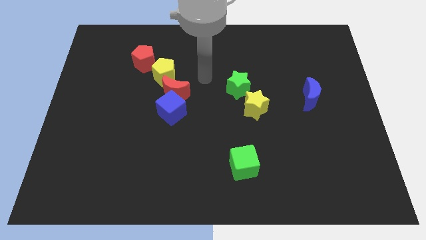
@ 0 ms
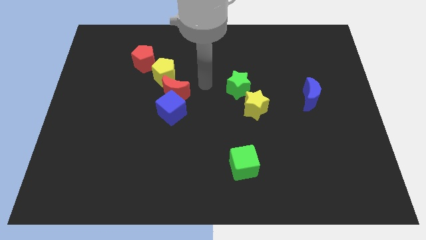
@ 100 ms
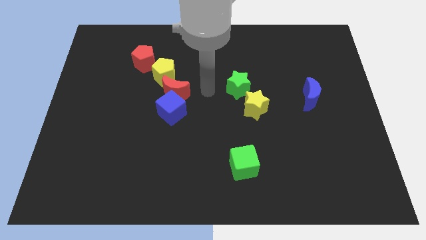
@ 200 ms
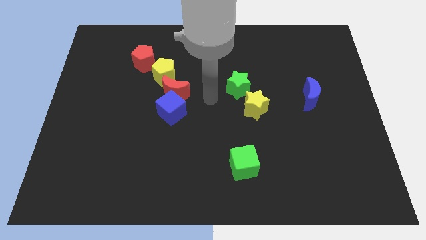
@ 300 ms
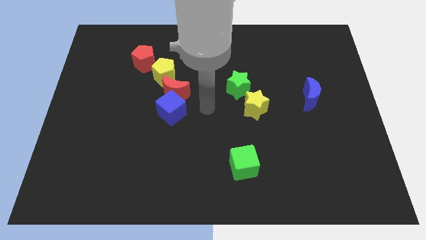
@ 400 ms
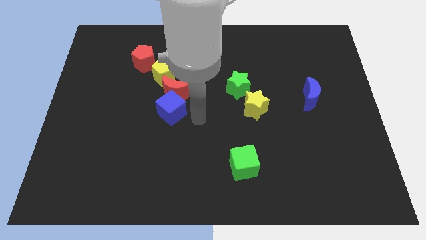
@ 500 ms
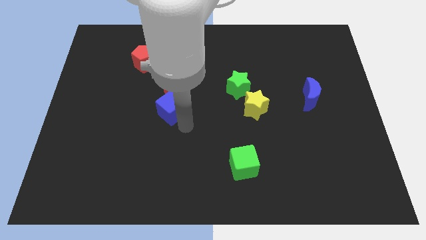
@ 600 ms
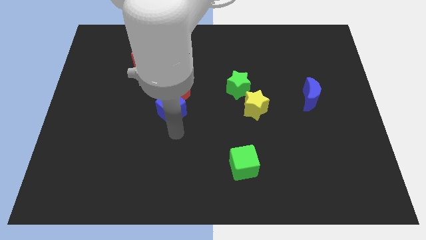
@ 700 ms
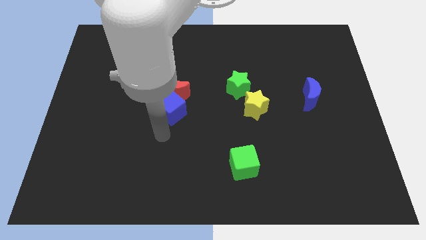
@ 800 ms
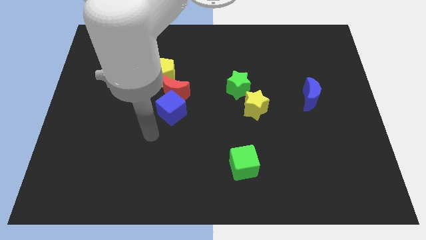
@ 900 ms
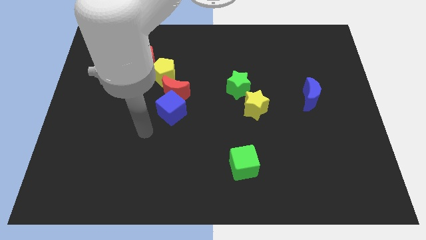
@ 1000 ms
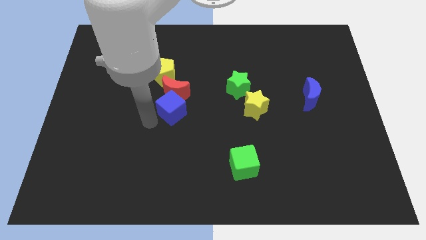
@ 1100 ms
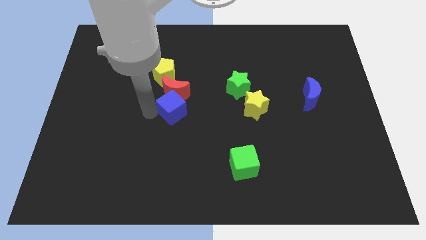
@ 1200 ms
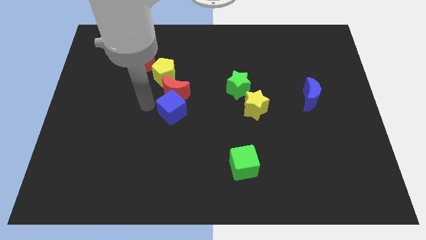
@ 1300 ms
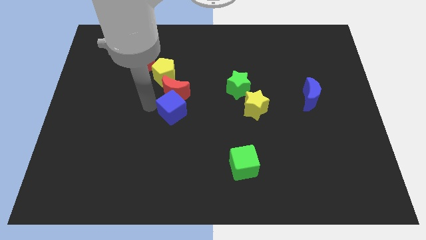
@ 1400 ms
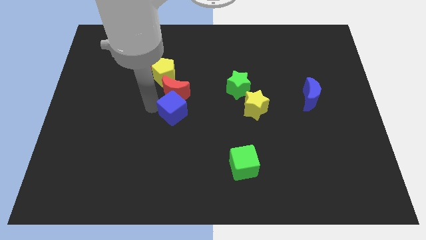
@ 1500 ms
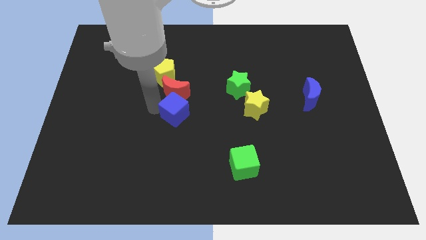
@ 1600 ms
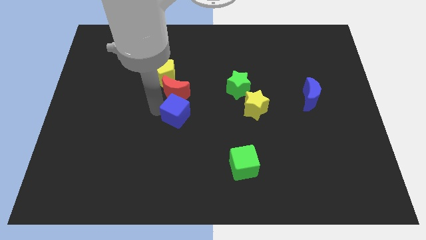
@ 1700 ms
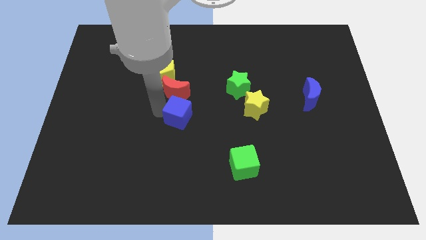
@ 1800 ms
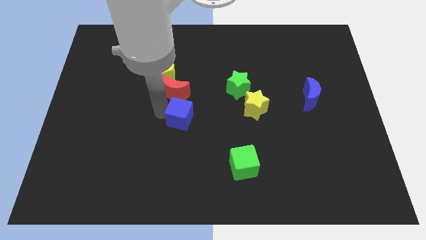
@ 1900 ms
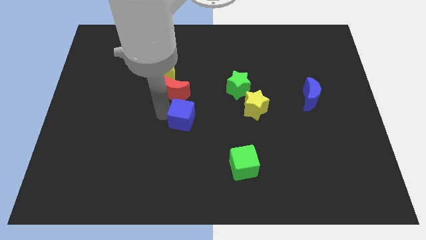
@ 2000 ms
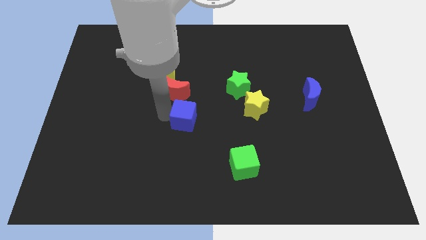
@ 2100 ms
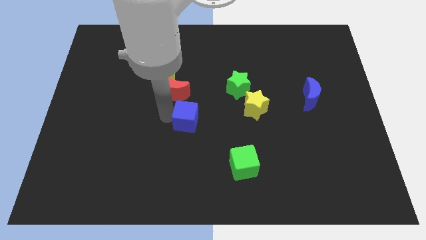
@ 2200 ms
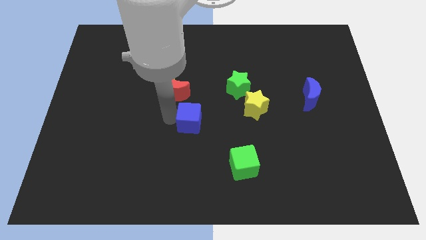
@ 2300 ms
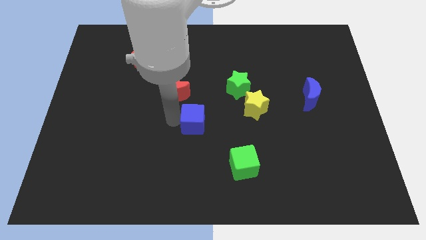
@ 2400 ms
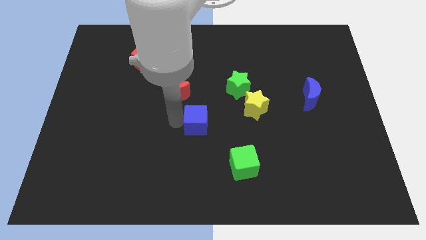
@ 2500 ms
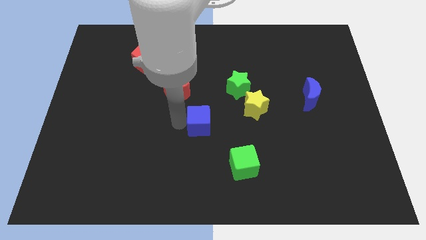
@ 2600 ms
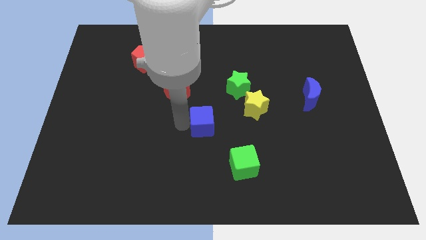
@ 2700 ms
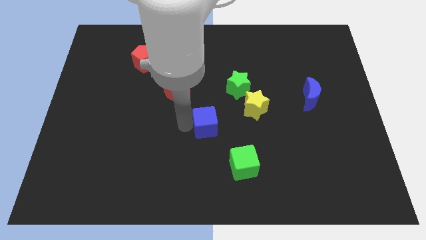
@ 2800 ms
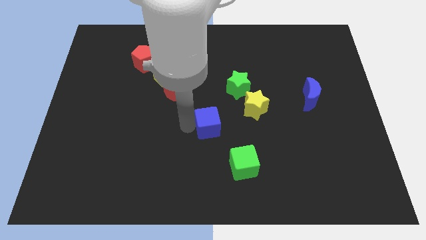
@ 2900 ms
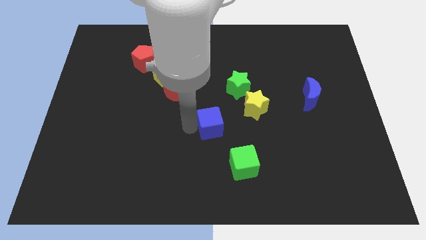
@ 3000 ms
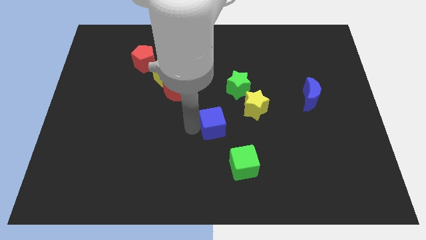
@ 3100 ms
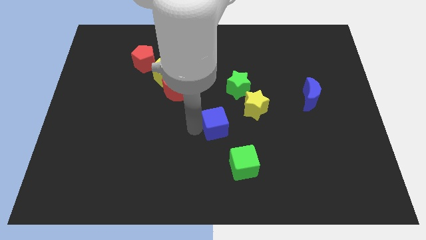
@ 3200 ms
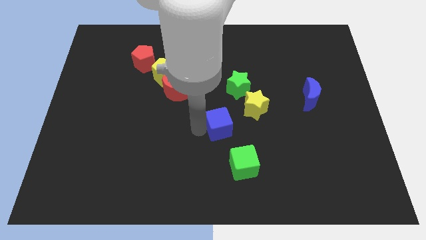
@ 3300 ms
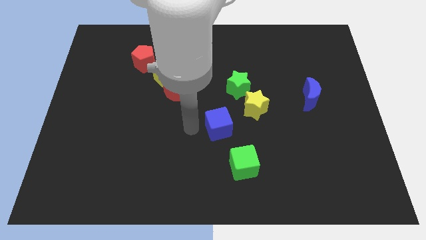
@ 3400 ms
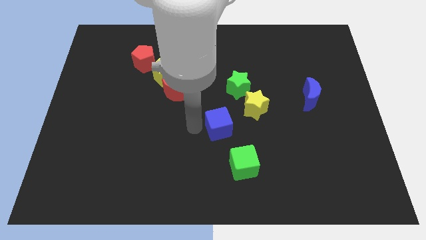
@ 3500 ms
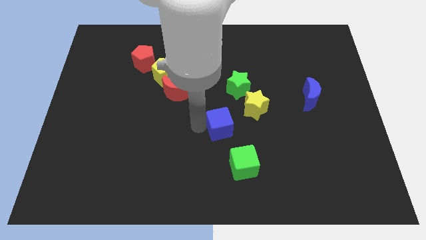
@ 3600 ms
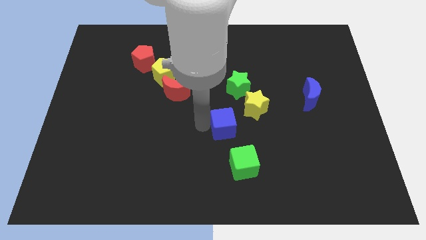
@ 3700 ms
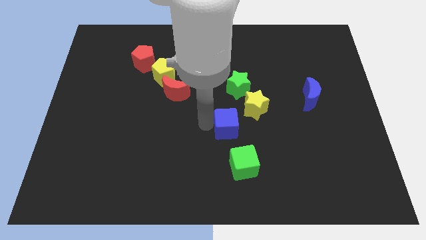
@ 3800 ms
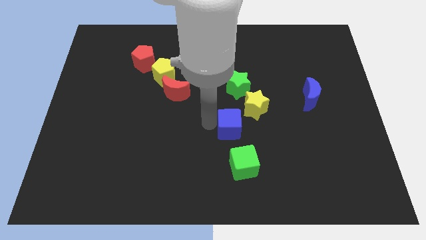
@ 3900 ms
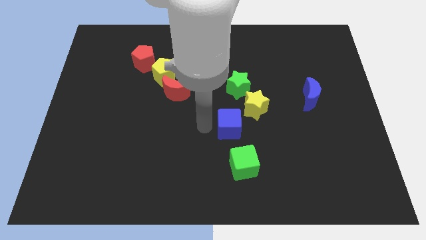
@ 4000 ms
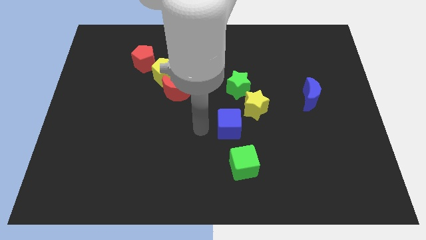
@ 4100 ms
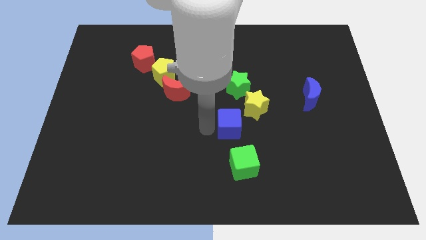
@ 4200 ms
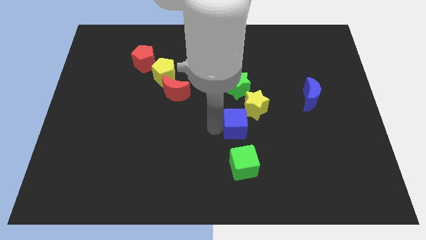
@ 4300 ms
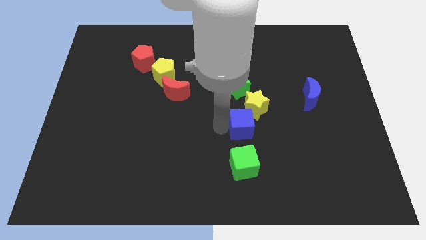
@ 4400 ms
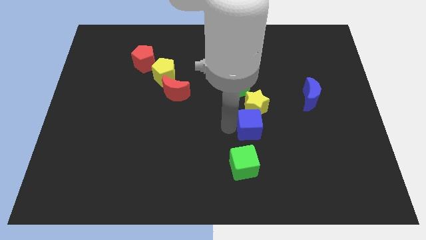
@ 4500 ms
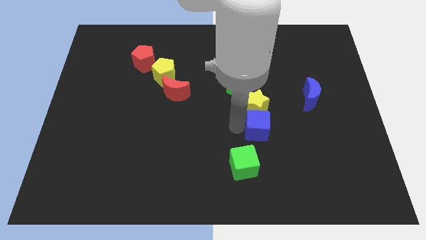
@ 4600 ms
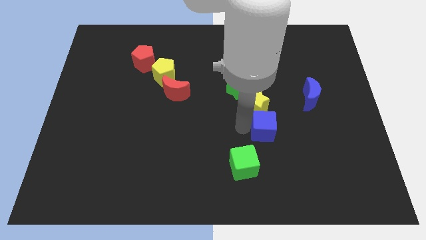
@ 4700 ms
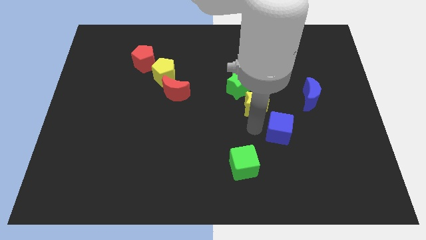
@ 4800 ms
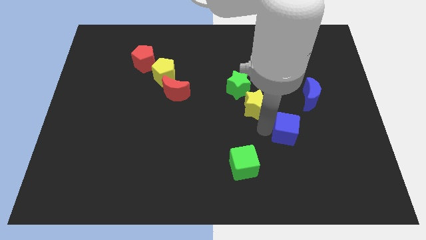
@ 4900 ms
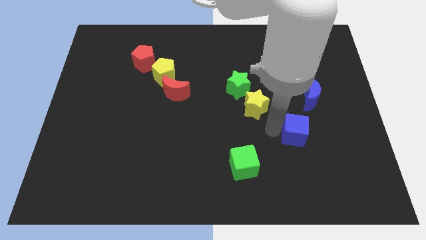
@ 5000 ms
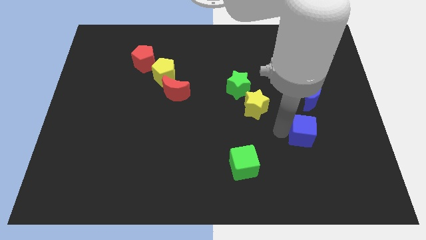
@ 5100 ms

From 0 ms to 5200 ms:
slide the blue cube below the blue moon

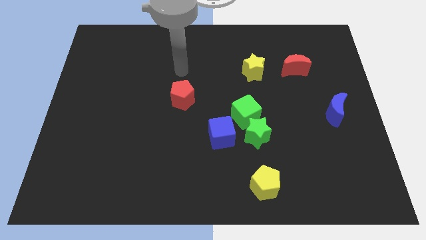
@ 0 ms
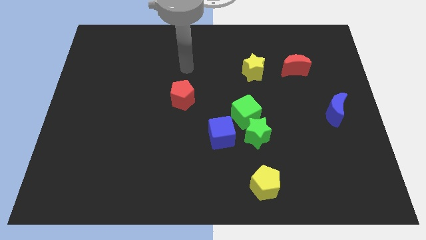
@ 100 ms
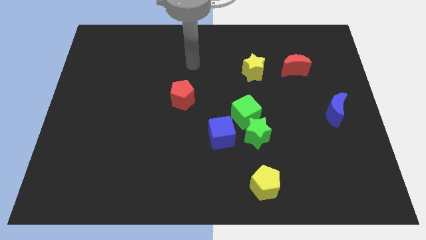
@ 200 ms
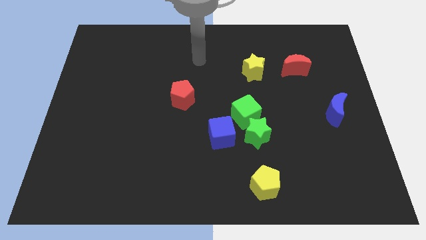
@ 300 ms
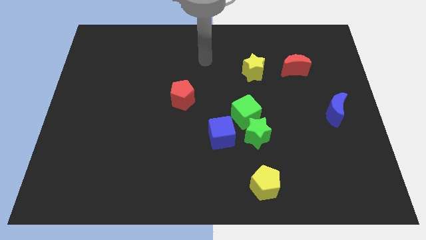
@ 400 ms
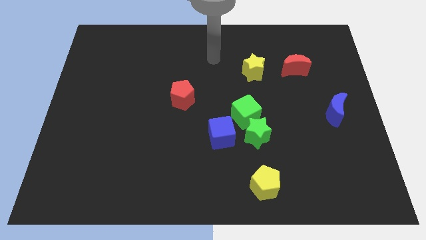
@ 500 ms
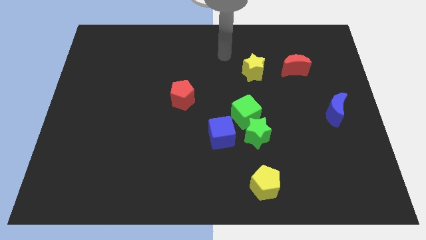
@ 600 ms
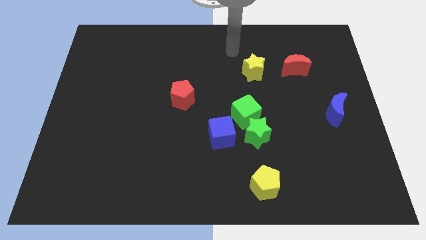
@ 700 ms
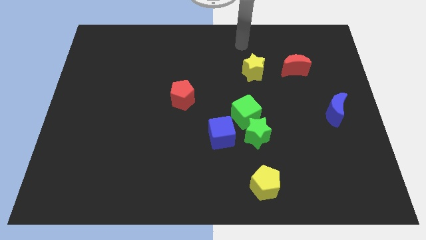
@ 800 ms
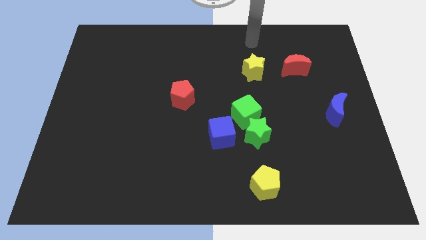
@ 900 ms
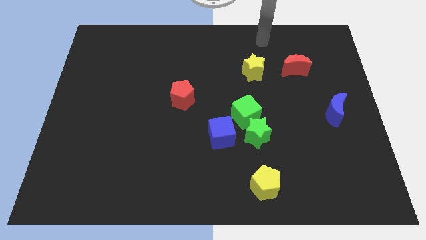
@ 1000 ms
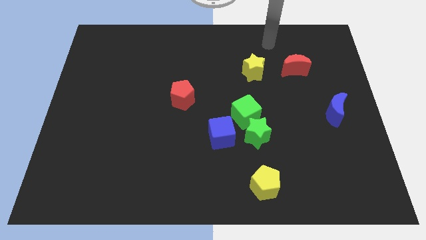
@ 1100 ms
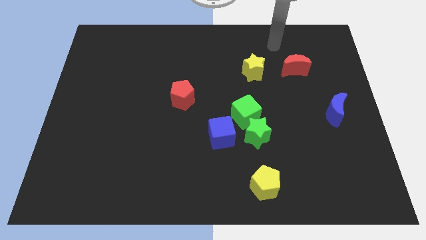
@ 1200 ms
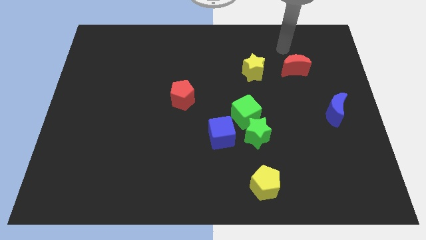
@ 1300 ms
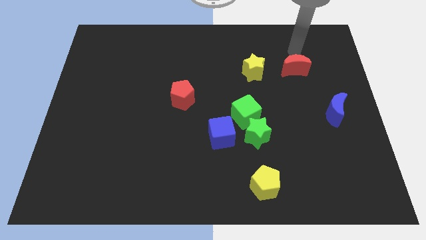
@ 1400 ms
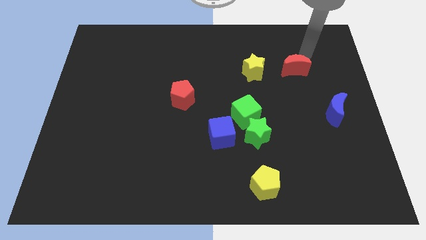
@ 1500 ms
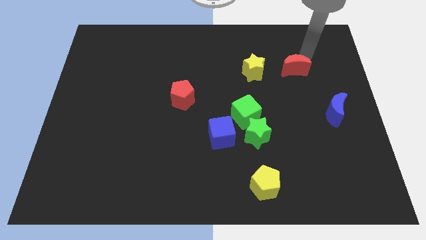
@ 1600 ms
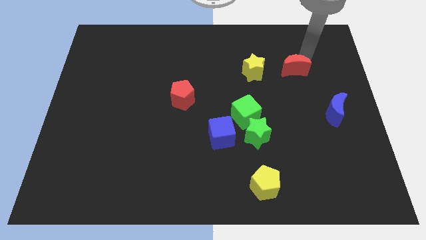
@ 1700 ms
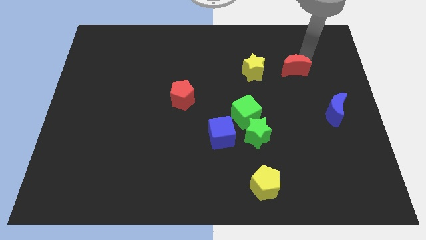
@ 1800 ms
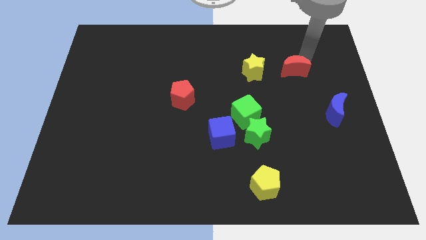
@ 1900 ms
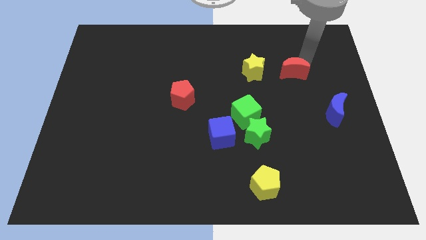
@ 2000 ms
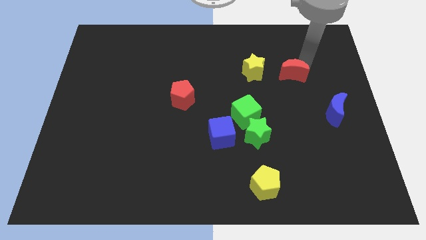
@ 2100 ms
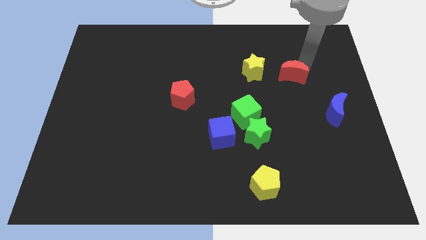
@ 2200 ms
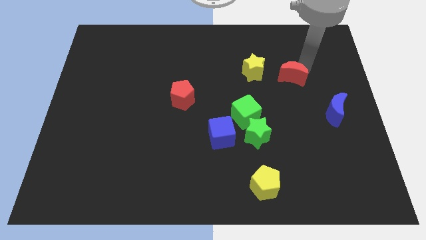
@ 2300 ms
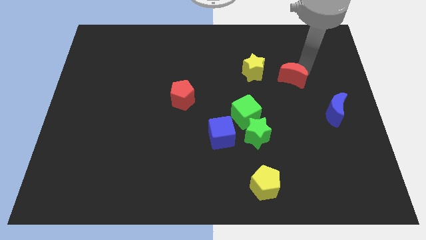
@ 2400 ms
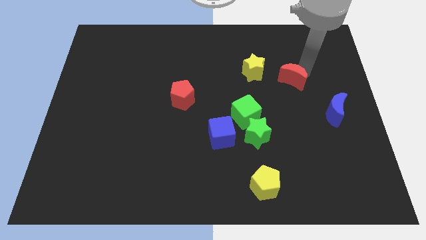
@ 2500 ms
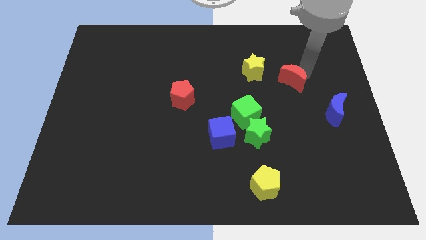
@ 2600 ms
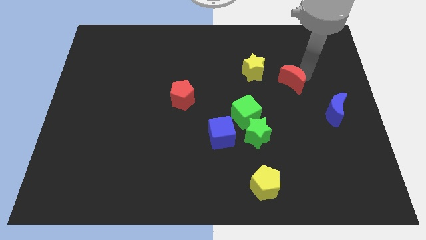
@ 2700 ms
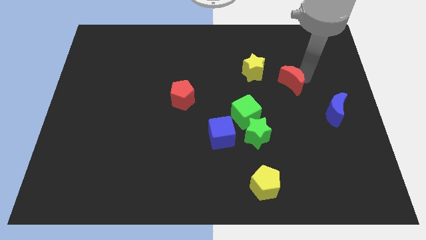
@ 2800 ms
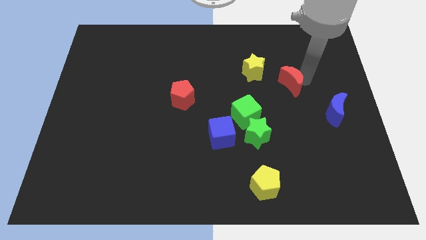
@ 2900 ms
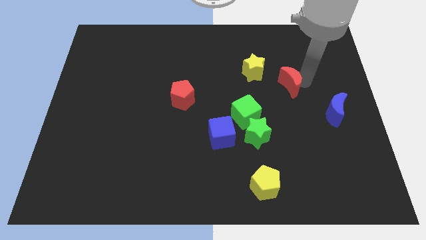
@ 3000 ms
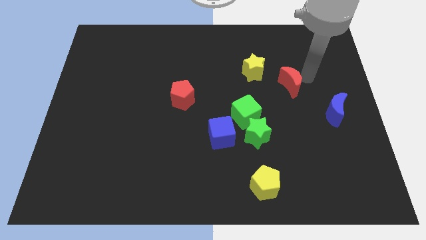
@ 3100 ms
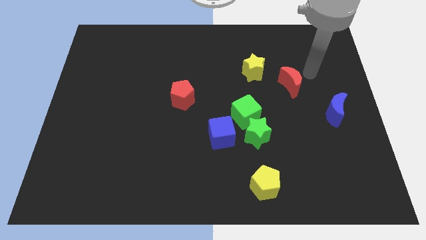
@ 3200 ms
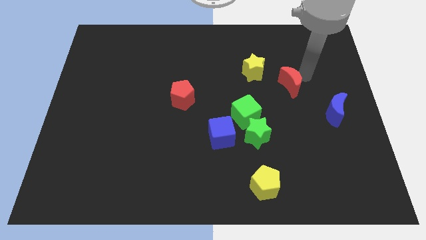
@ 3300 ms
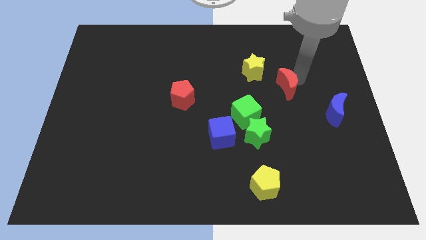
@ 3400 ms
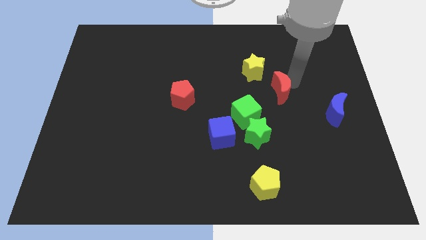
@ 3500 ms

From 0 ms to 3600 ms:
push the red moon to the top right side of the green cube
